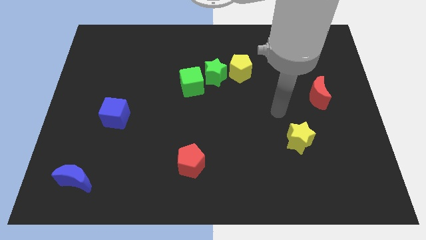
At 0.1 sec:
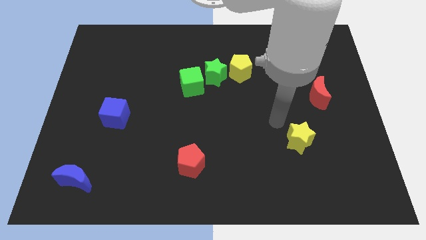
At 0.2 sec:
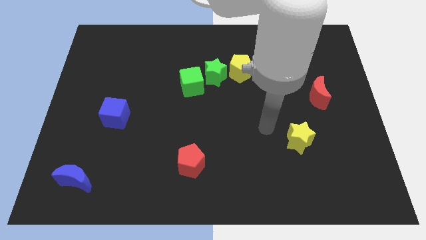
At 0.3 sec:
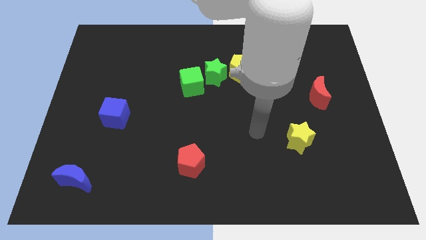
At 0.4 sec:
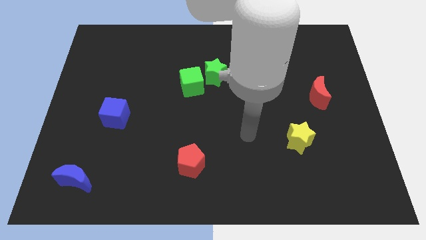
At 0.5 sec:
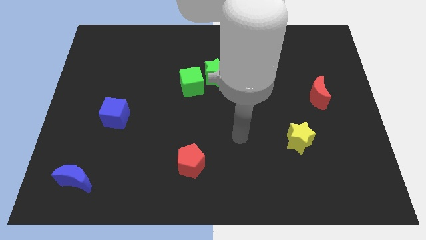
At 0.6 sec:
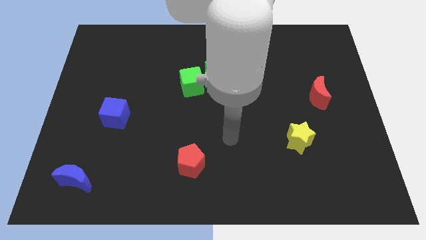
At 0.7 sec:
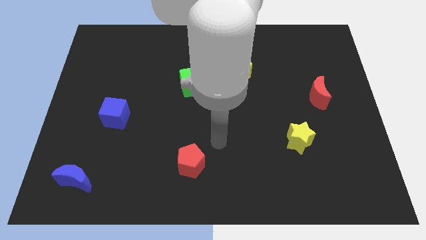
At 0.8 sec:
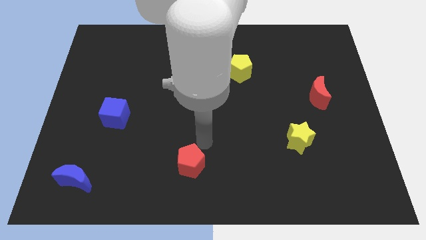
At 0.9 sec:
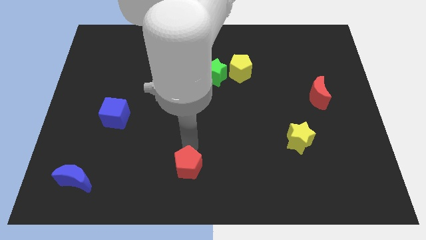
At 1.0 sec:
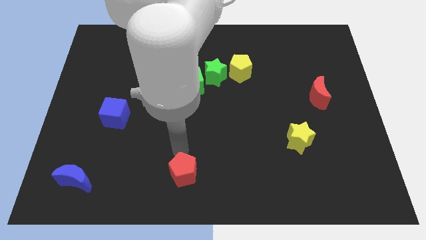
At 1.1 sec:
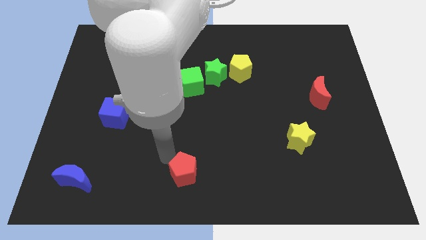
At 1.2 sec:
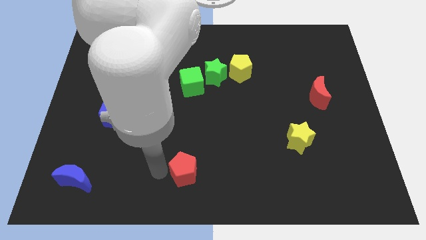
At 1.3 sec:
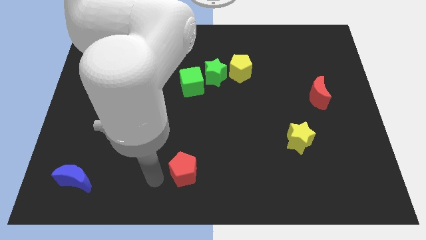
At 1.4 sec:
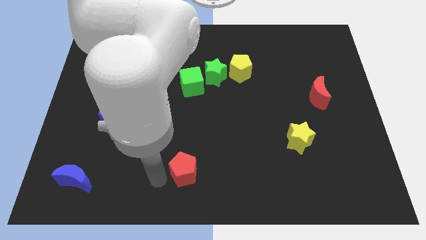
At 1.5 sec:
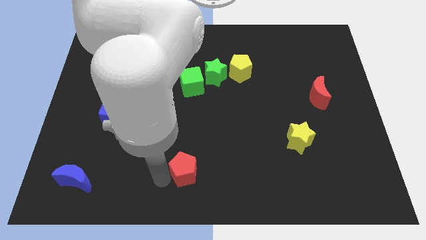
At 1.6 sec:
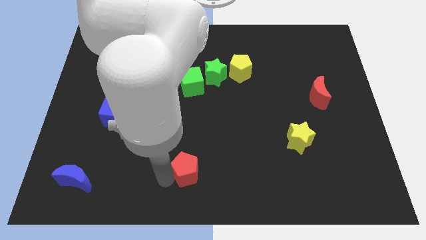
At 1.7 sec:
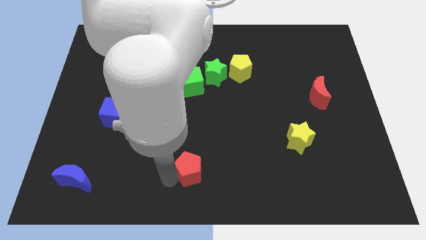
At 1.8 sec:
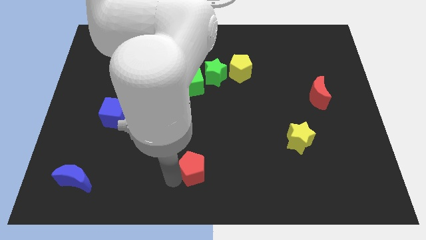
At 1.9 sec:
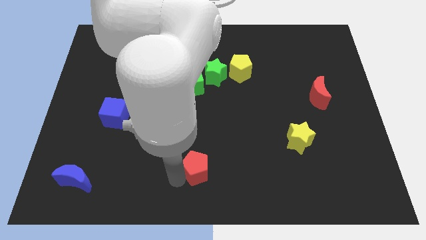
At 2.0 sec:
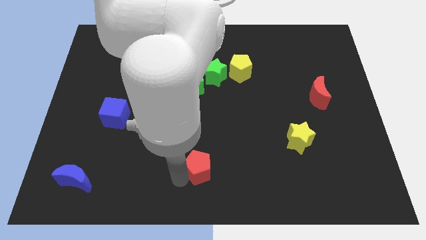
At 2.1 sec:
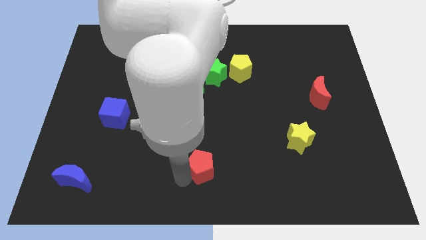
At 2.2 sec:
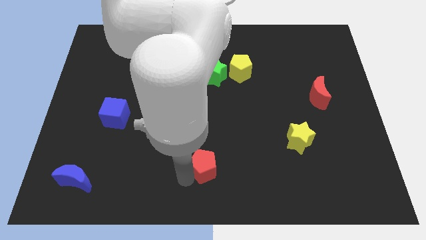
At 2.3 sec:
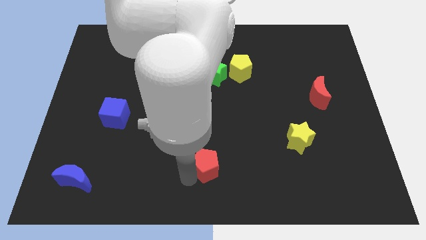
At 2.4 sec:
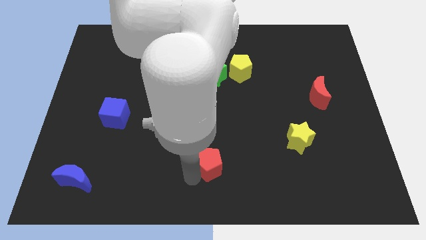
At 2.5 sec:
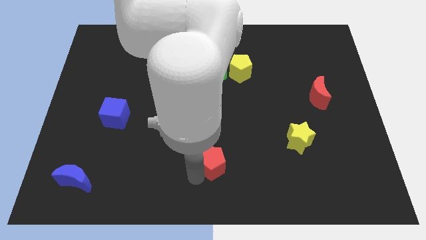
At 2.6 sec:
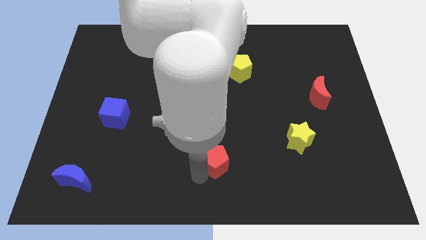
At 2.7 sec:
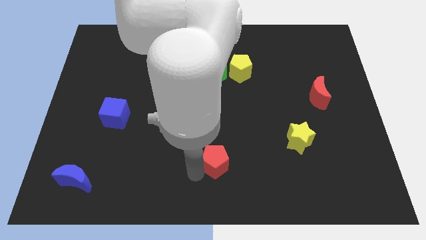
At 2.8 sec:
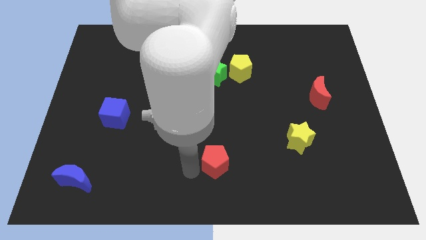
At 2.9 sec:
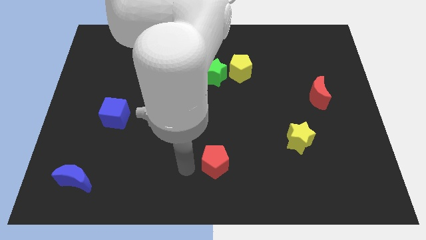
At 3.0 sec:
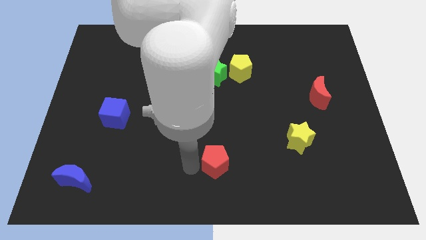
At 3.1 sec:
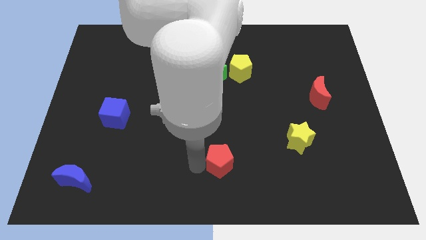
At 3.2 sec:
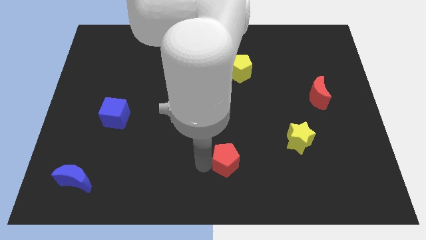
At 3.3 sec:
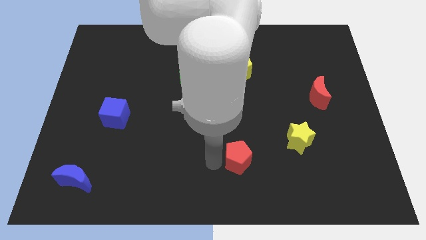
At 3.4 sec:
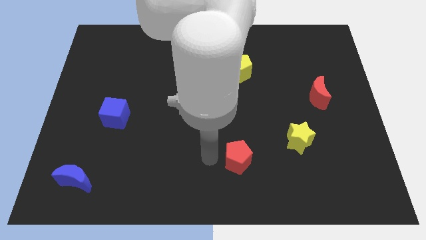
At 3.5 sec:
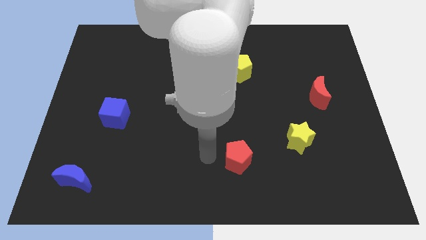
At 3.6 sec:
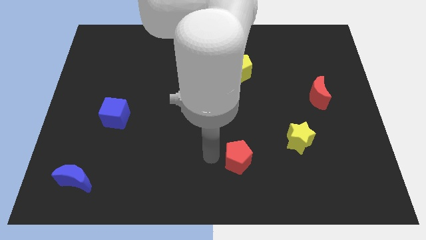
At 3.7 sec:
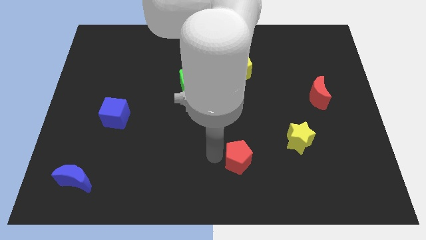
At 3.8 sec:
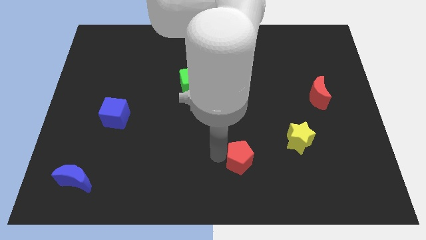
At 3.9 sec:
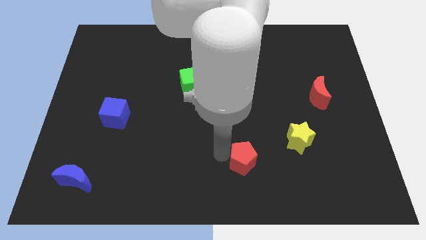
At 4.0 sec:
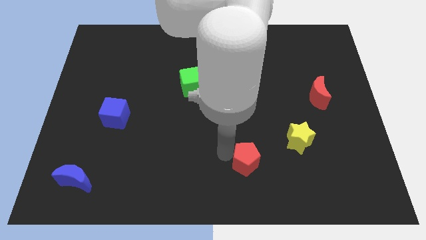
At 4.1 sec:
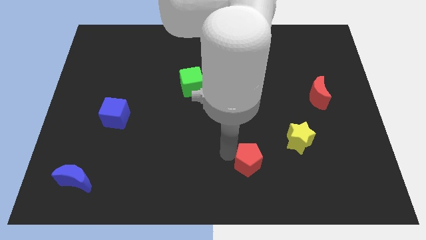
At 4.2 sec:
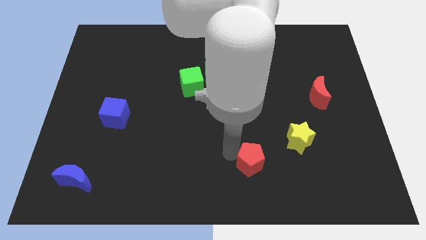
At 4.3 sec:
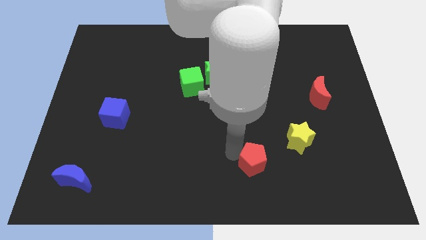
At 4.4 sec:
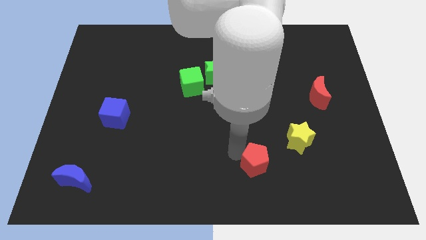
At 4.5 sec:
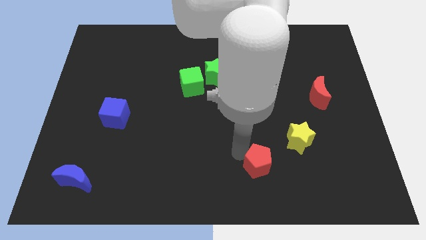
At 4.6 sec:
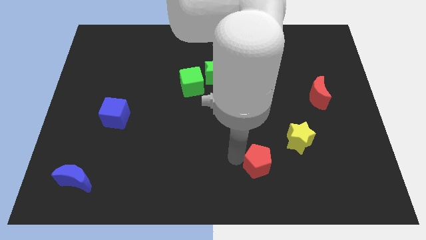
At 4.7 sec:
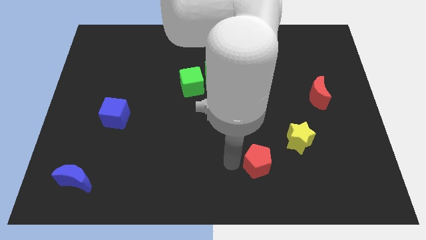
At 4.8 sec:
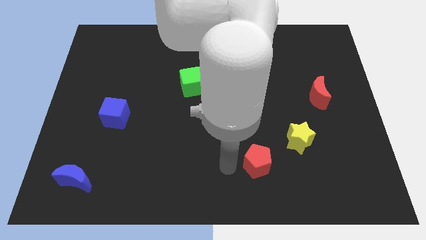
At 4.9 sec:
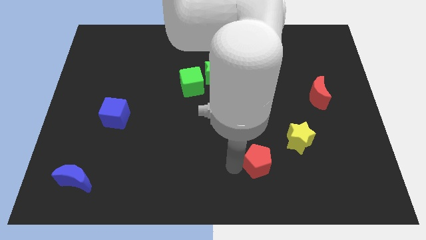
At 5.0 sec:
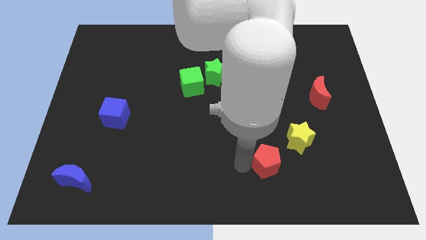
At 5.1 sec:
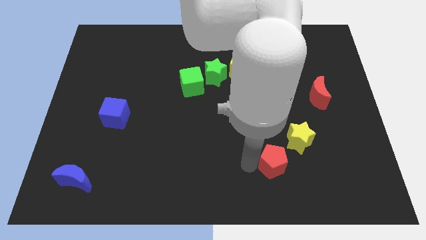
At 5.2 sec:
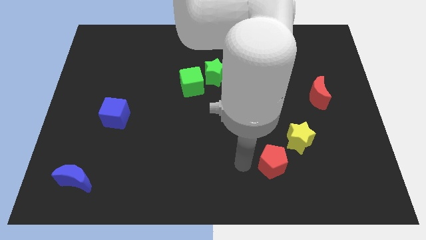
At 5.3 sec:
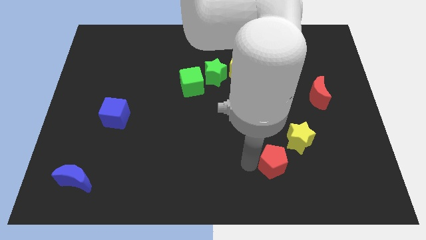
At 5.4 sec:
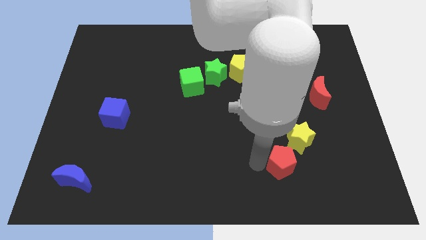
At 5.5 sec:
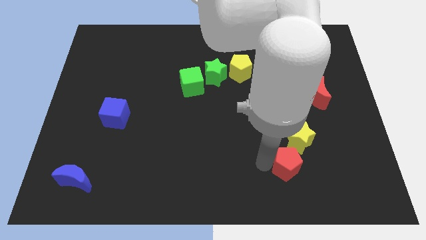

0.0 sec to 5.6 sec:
move the red pentagon to the right

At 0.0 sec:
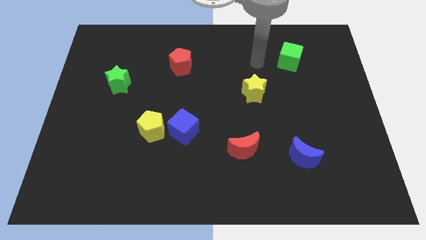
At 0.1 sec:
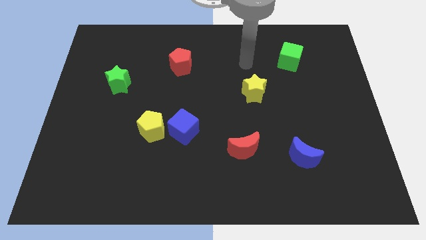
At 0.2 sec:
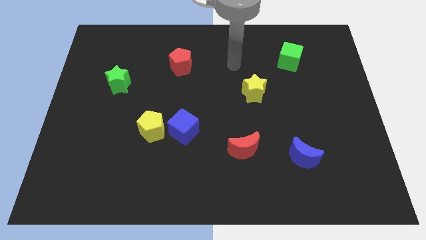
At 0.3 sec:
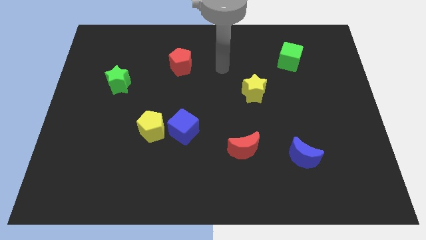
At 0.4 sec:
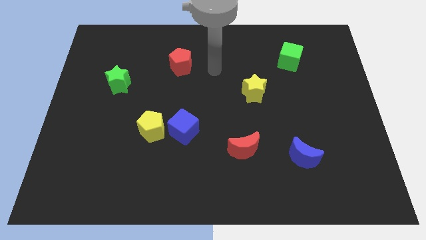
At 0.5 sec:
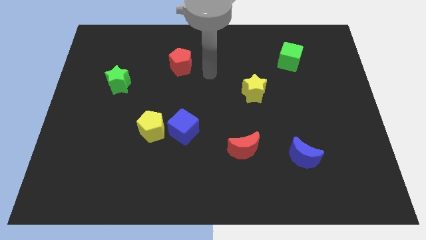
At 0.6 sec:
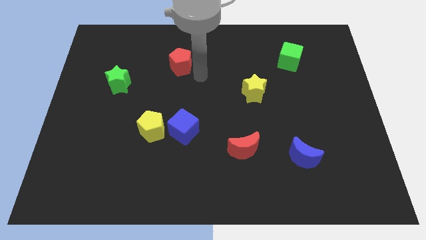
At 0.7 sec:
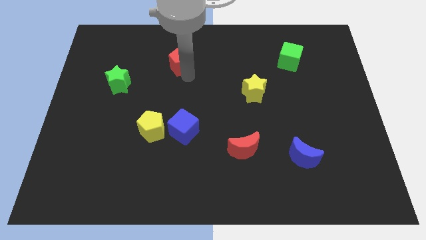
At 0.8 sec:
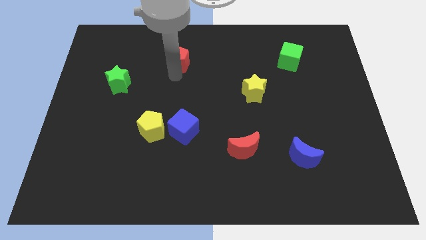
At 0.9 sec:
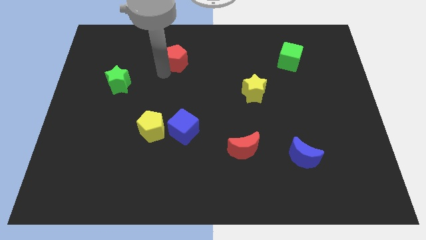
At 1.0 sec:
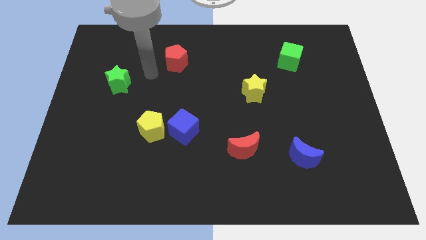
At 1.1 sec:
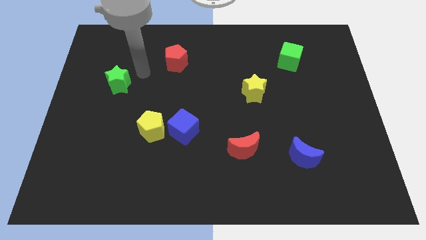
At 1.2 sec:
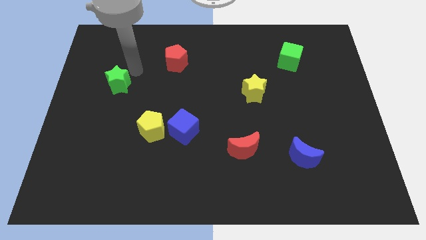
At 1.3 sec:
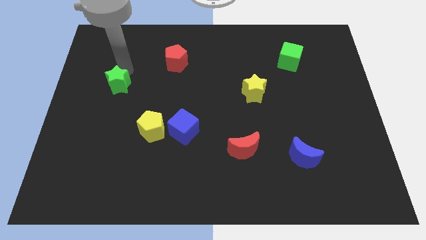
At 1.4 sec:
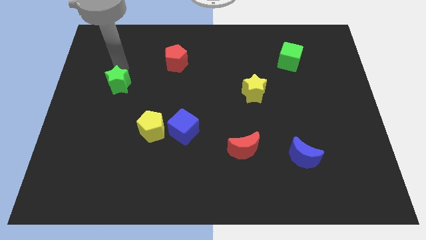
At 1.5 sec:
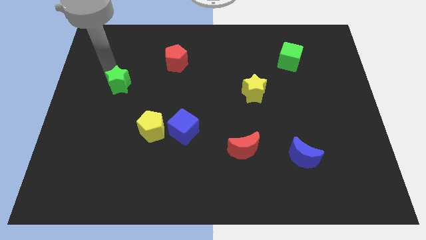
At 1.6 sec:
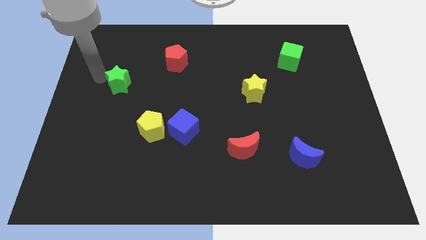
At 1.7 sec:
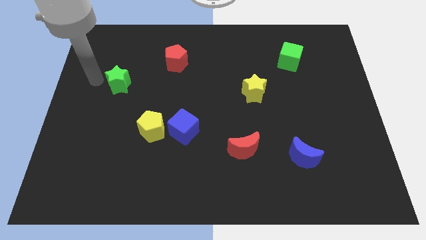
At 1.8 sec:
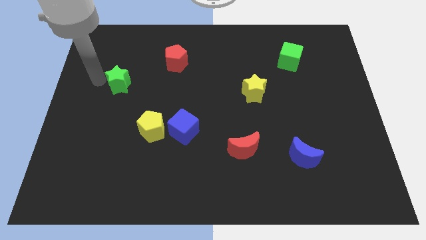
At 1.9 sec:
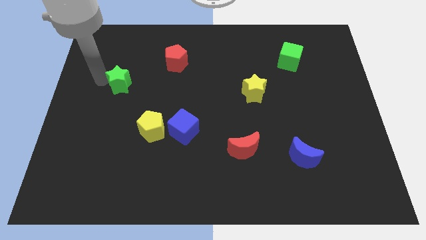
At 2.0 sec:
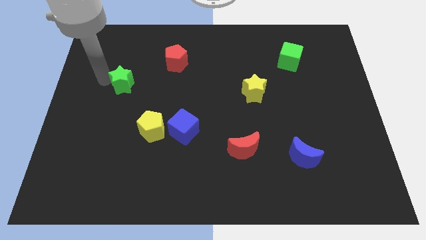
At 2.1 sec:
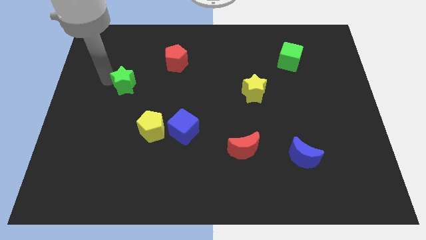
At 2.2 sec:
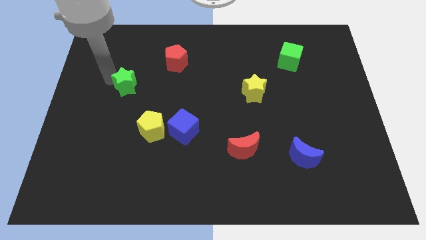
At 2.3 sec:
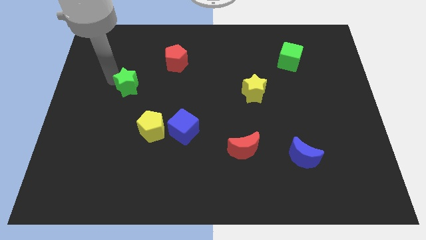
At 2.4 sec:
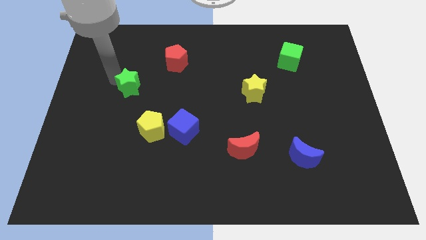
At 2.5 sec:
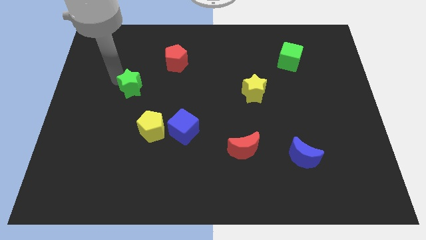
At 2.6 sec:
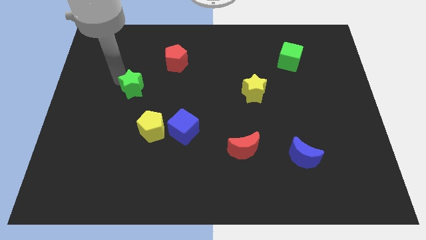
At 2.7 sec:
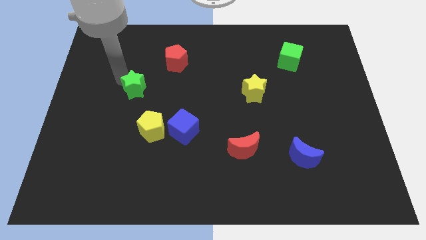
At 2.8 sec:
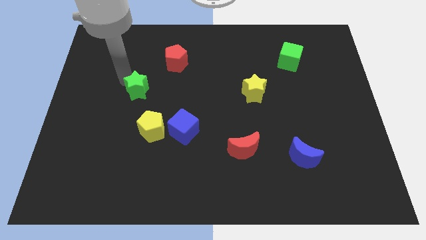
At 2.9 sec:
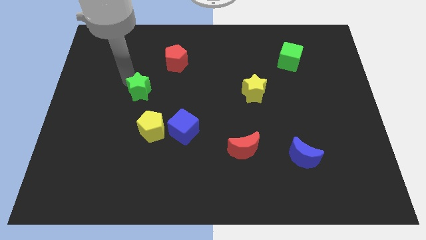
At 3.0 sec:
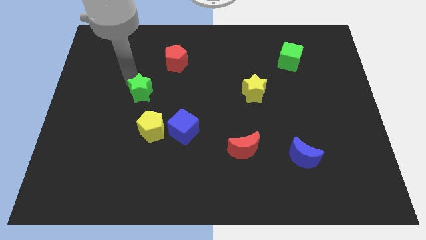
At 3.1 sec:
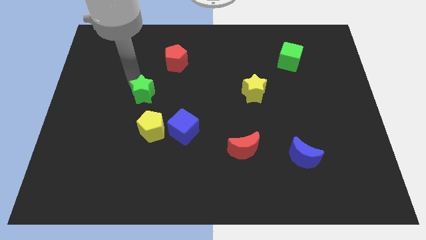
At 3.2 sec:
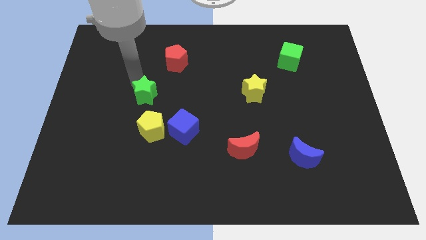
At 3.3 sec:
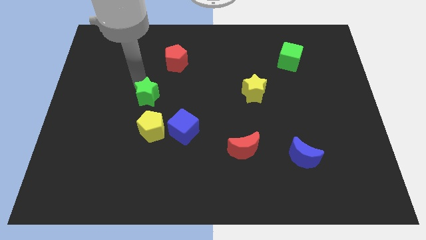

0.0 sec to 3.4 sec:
slide the green star a little bit to the right
